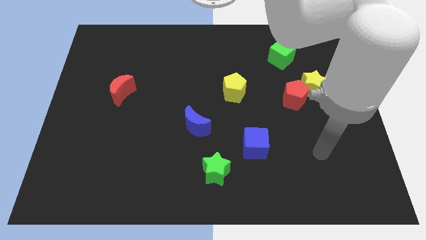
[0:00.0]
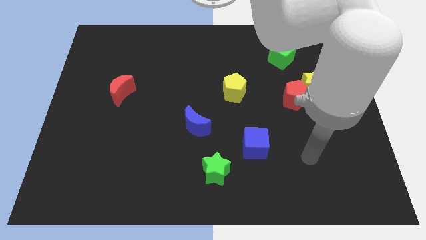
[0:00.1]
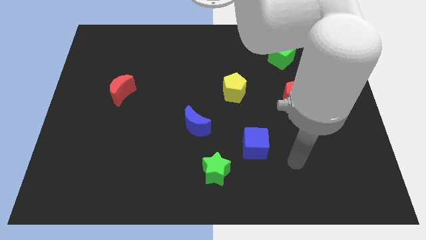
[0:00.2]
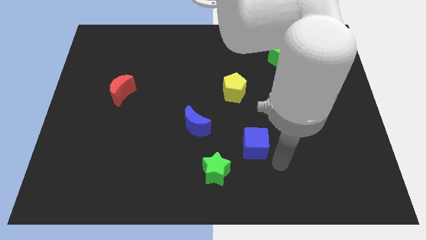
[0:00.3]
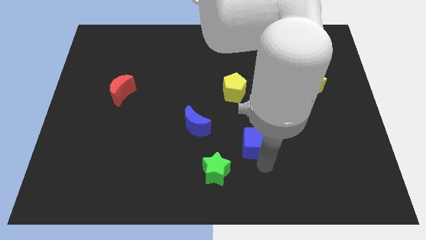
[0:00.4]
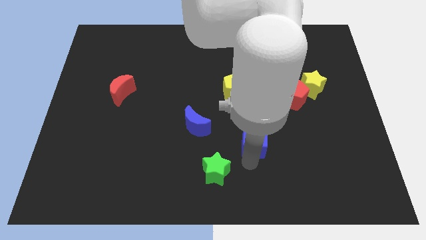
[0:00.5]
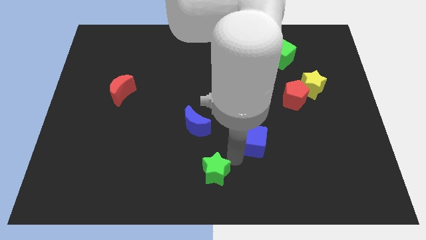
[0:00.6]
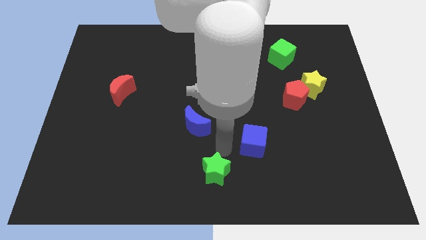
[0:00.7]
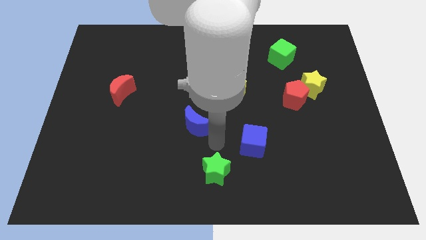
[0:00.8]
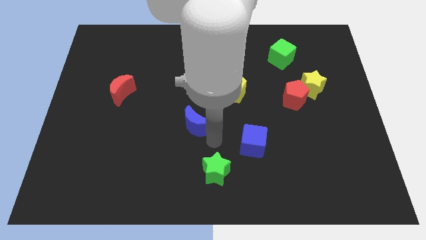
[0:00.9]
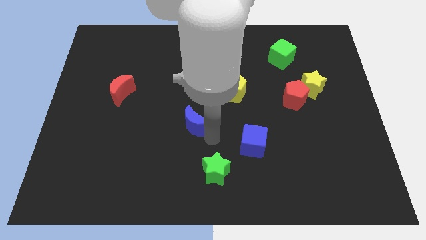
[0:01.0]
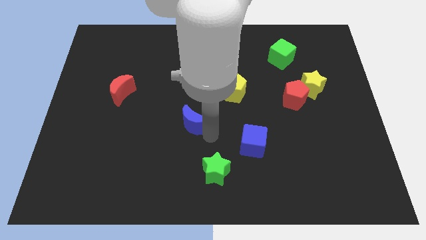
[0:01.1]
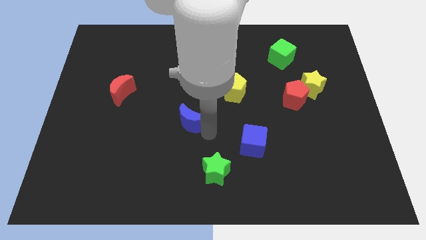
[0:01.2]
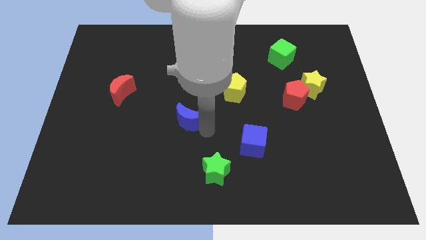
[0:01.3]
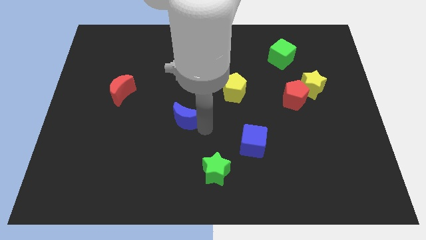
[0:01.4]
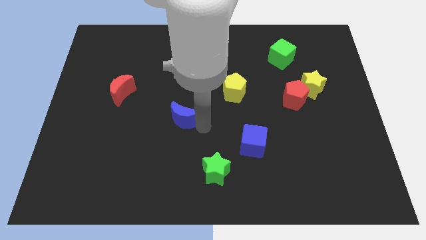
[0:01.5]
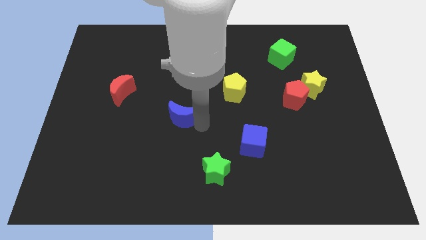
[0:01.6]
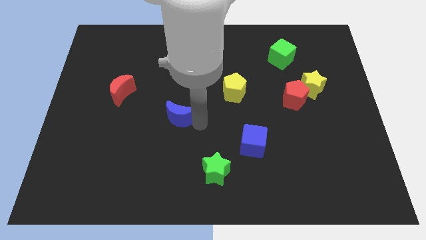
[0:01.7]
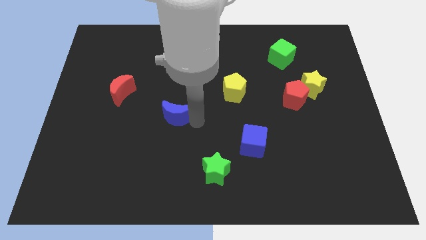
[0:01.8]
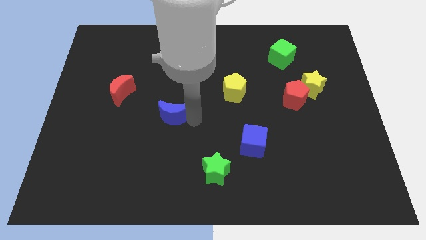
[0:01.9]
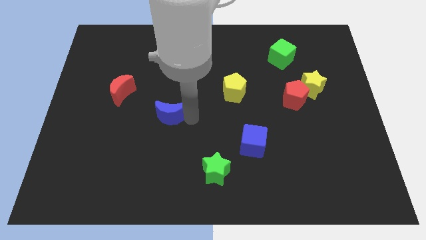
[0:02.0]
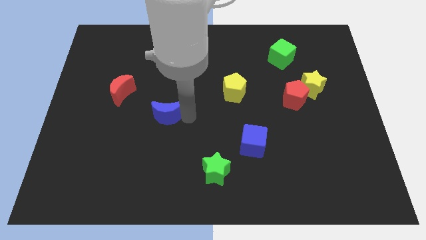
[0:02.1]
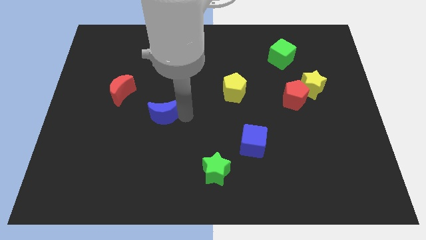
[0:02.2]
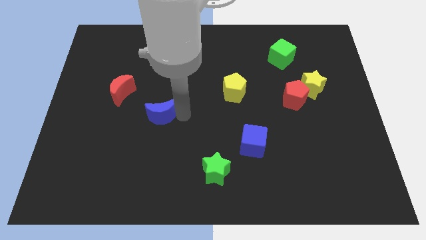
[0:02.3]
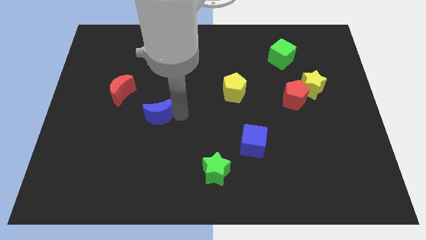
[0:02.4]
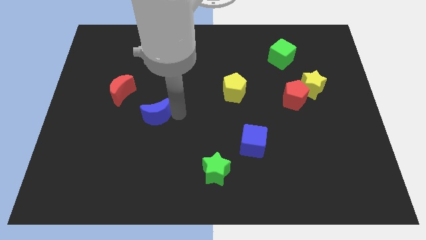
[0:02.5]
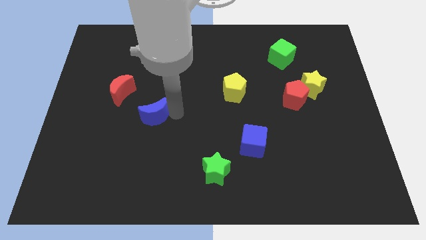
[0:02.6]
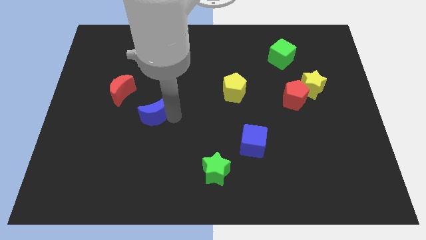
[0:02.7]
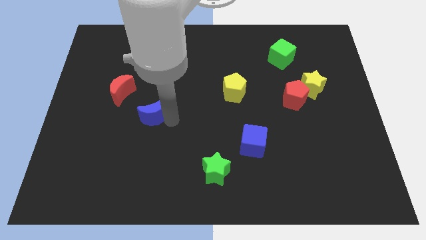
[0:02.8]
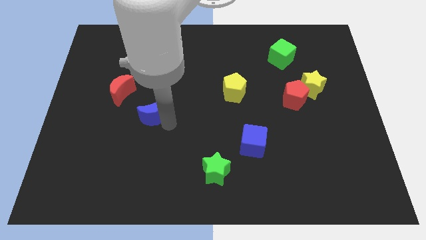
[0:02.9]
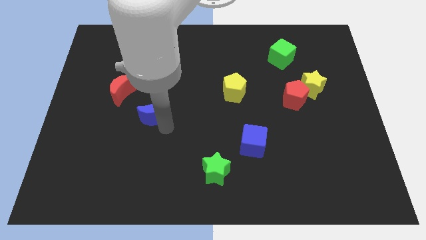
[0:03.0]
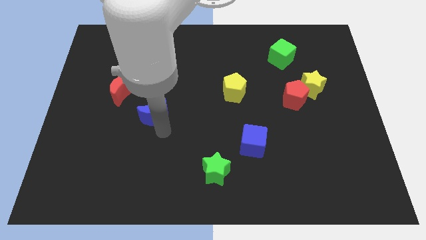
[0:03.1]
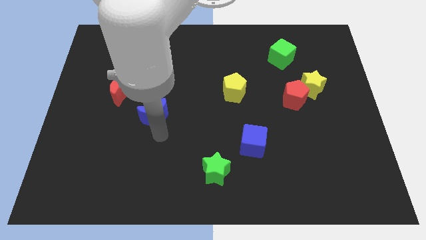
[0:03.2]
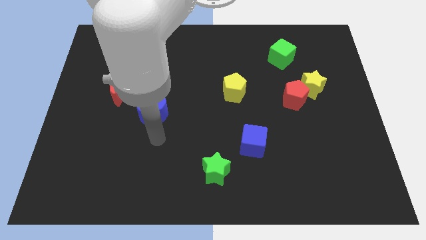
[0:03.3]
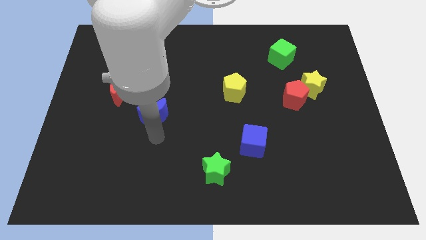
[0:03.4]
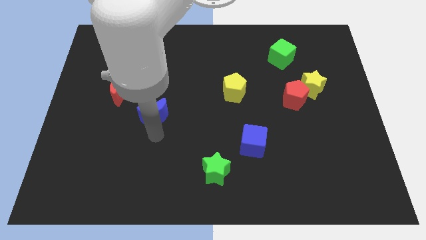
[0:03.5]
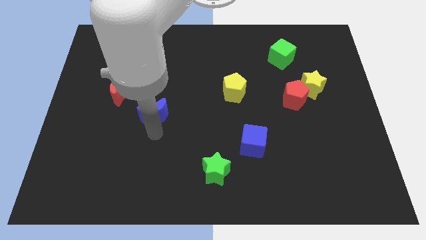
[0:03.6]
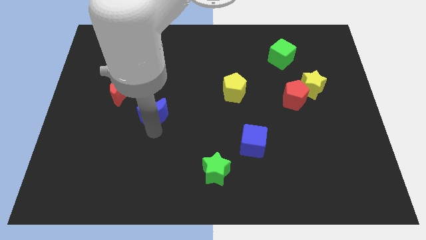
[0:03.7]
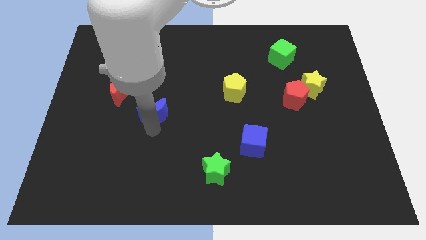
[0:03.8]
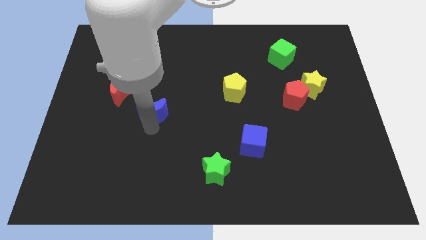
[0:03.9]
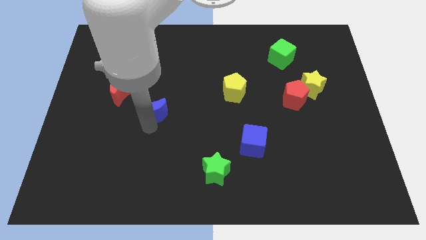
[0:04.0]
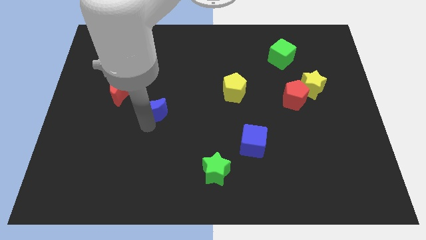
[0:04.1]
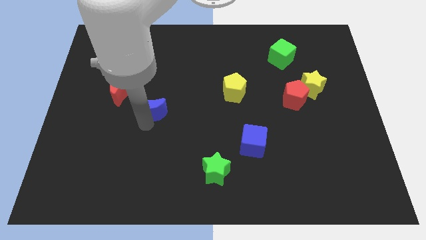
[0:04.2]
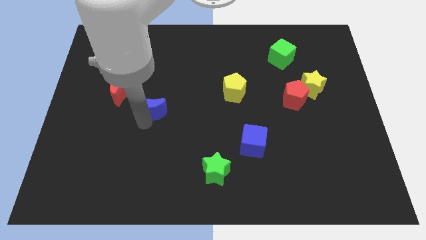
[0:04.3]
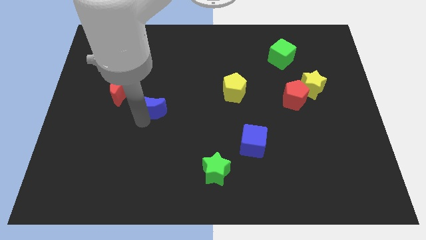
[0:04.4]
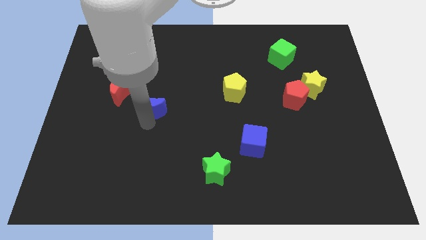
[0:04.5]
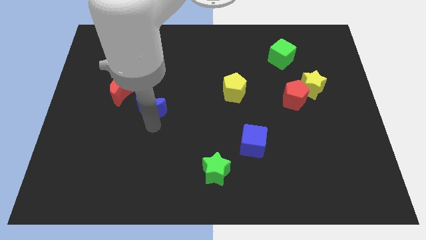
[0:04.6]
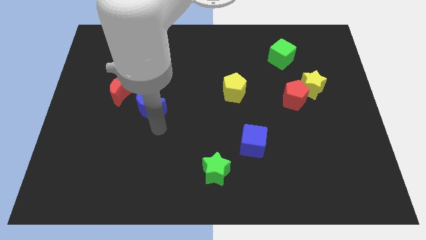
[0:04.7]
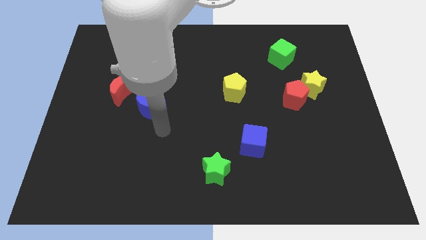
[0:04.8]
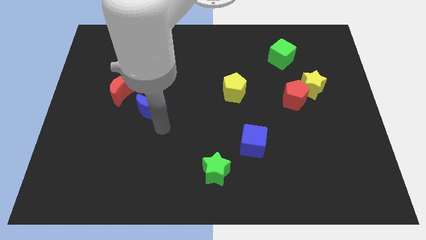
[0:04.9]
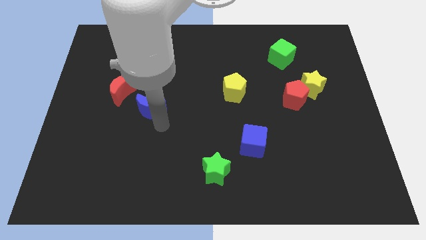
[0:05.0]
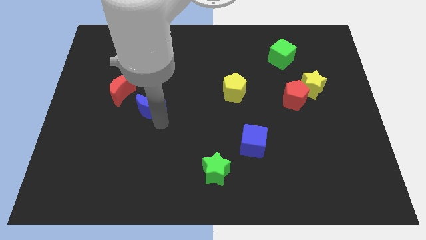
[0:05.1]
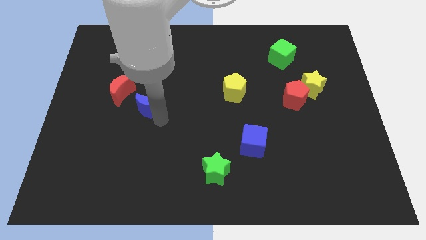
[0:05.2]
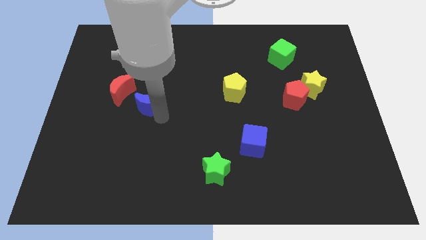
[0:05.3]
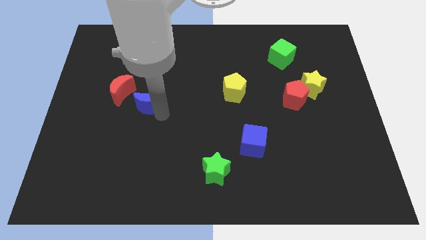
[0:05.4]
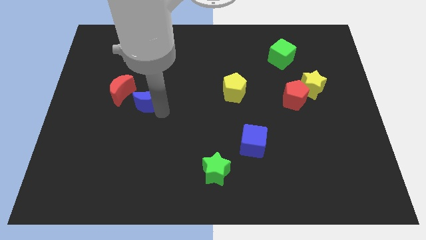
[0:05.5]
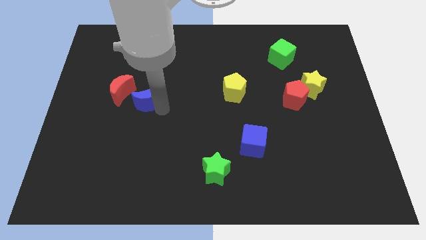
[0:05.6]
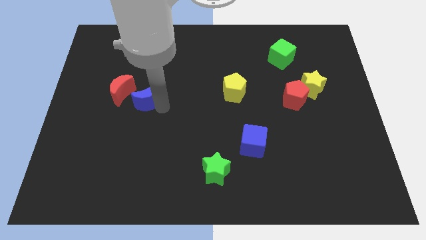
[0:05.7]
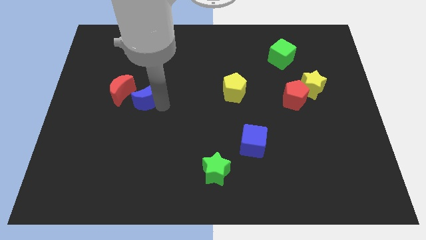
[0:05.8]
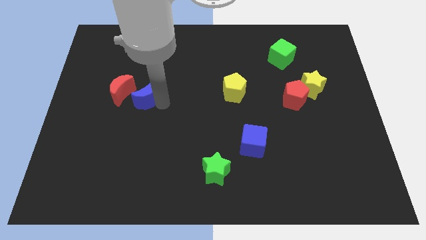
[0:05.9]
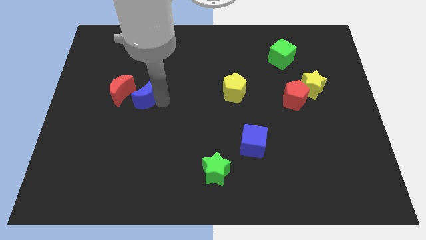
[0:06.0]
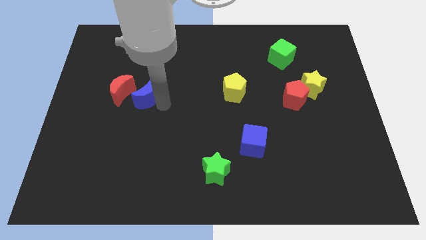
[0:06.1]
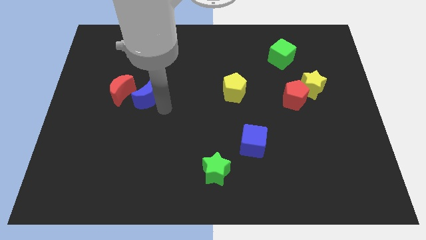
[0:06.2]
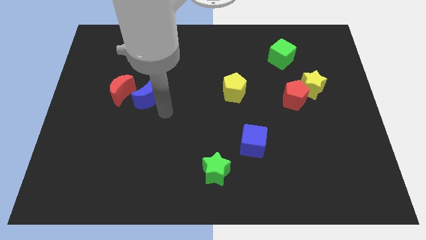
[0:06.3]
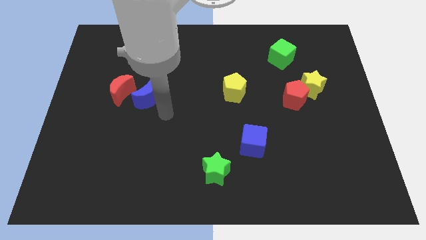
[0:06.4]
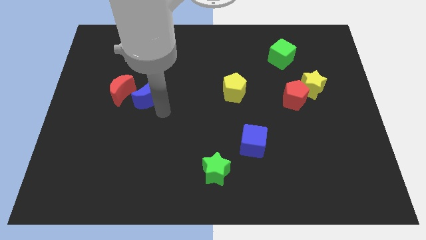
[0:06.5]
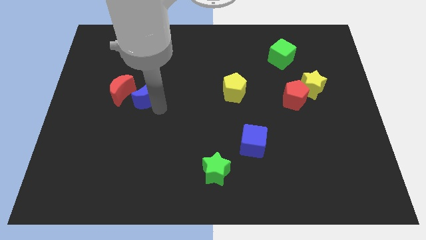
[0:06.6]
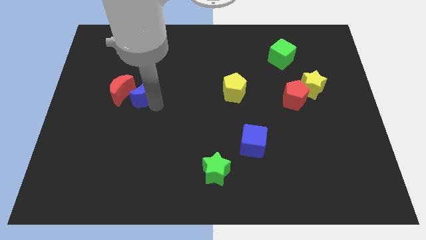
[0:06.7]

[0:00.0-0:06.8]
push the blue moon next to the red moon

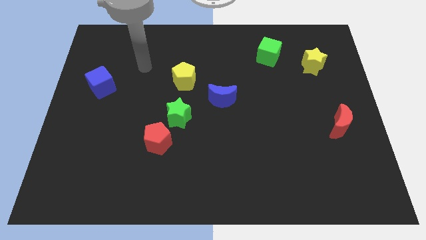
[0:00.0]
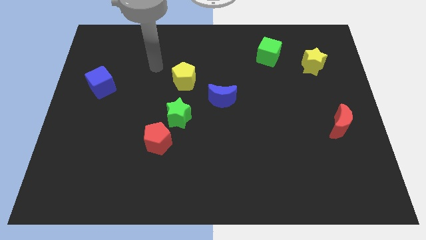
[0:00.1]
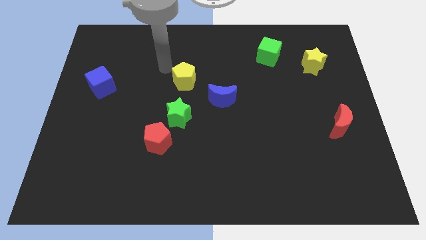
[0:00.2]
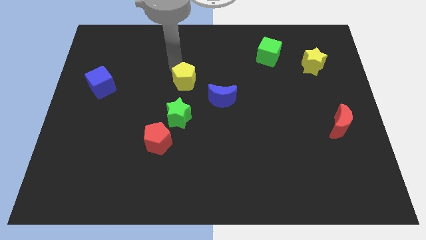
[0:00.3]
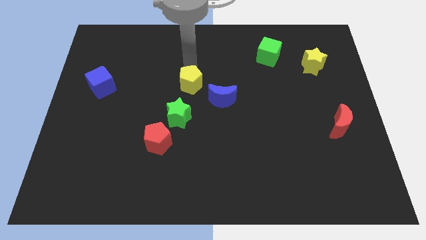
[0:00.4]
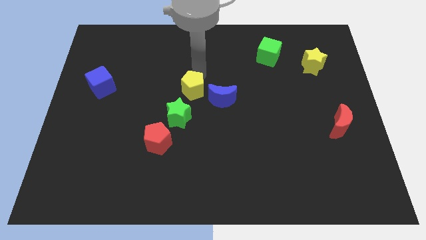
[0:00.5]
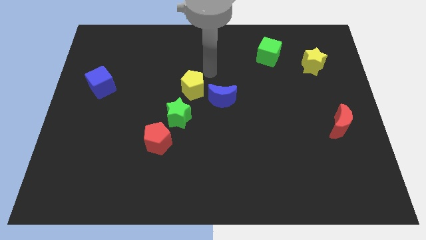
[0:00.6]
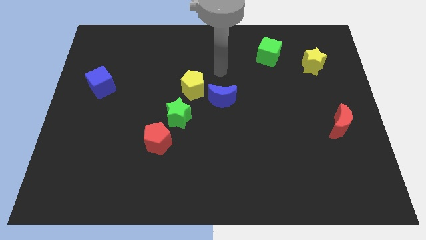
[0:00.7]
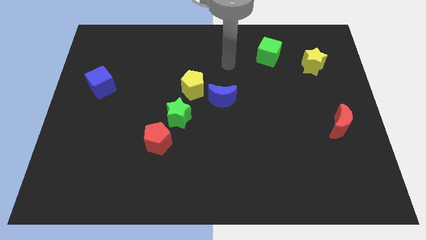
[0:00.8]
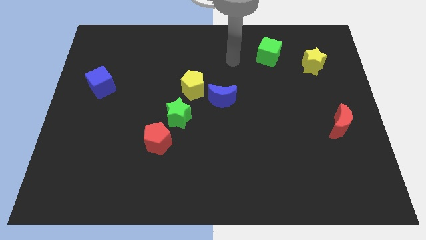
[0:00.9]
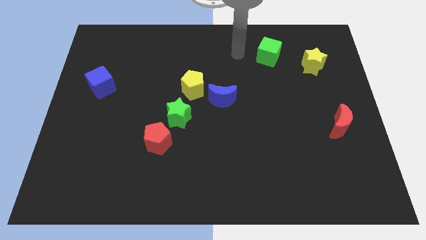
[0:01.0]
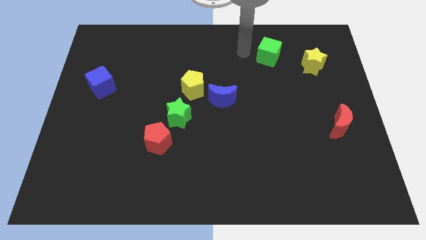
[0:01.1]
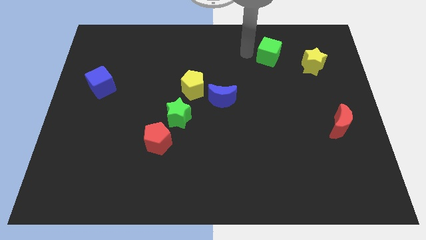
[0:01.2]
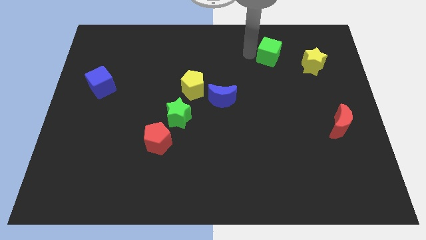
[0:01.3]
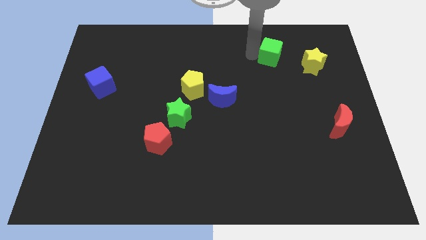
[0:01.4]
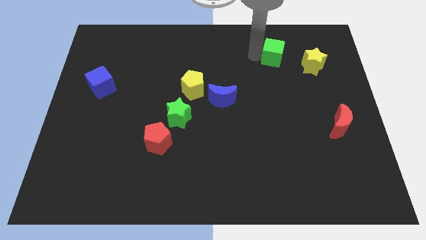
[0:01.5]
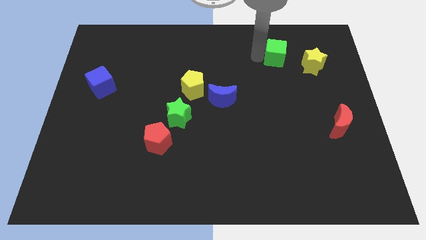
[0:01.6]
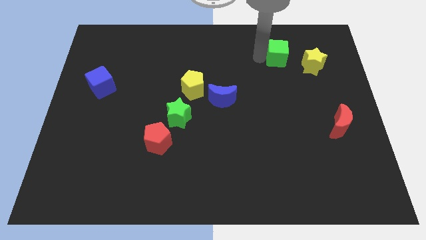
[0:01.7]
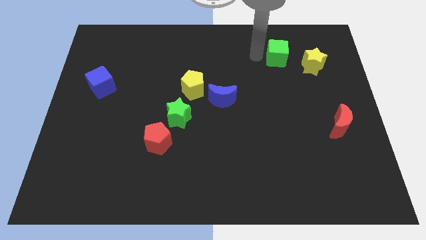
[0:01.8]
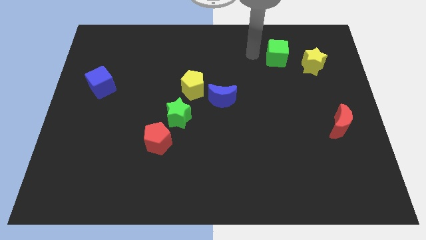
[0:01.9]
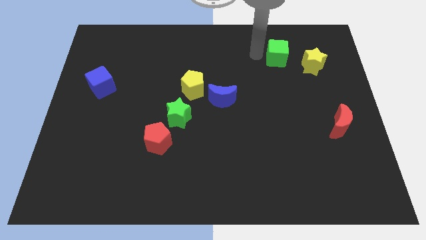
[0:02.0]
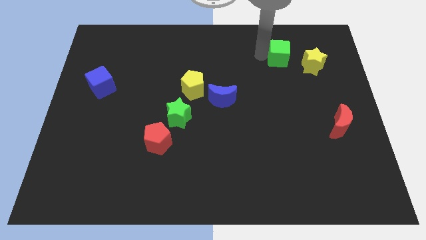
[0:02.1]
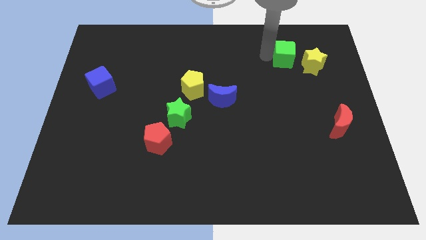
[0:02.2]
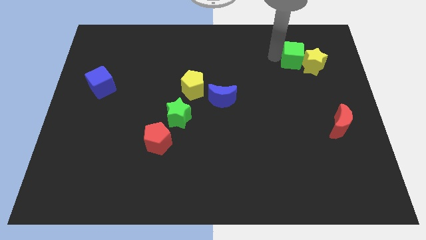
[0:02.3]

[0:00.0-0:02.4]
move the green cube next to the yellow star
